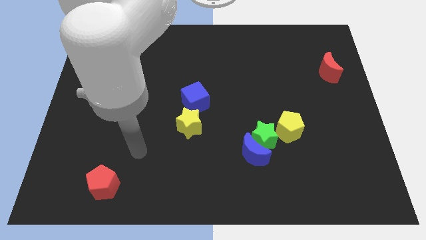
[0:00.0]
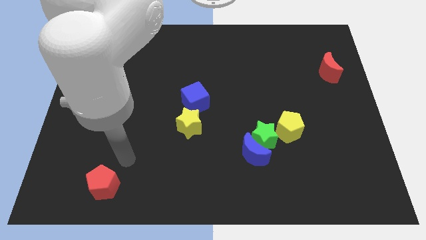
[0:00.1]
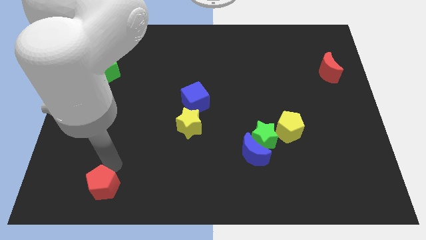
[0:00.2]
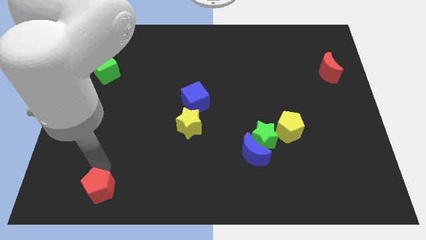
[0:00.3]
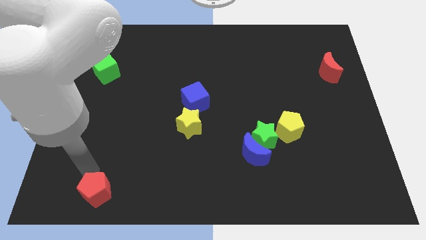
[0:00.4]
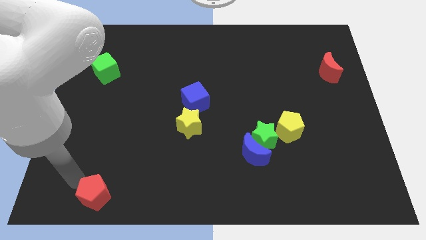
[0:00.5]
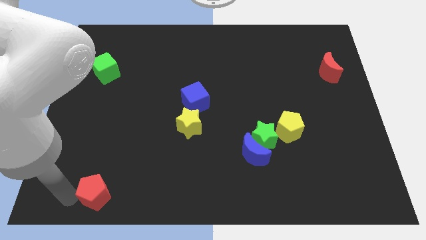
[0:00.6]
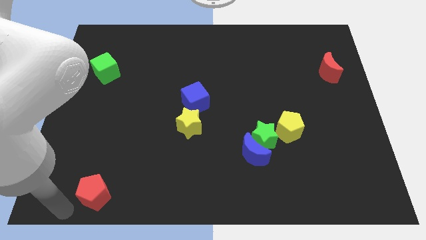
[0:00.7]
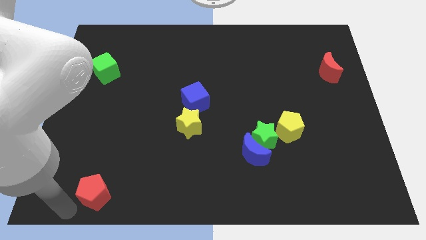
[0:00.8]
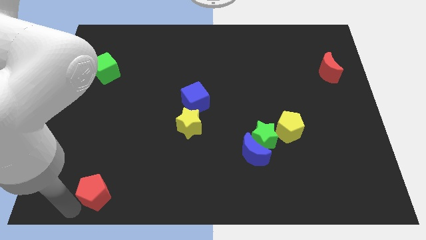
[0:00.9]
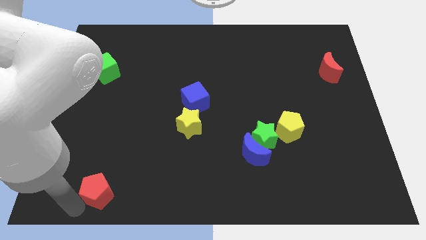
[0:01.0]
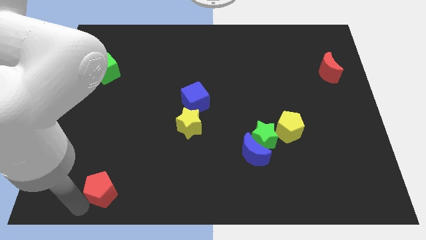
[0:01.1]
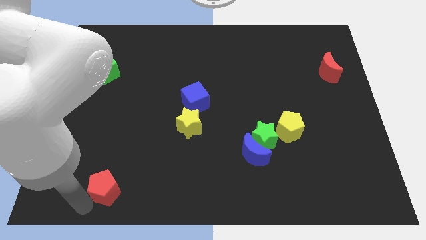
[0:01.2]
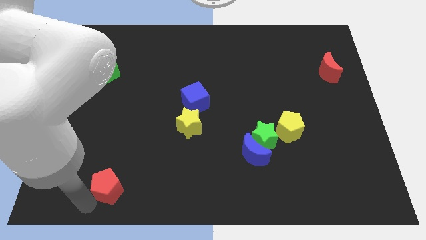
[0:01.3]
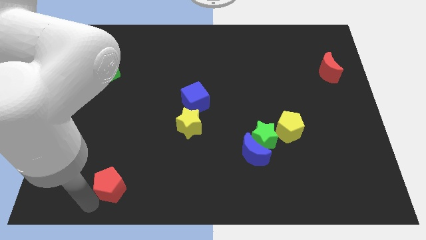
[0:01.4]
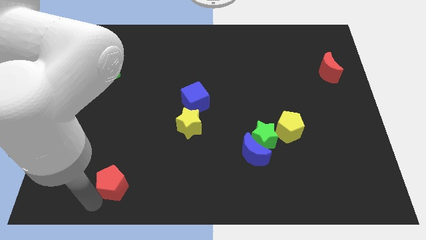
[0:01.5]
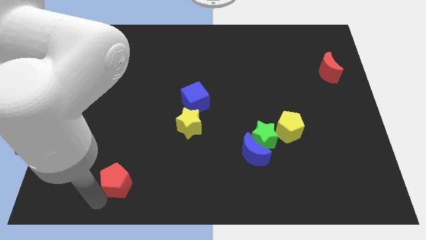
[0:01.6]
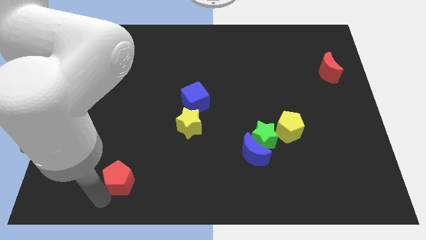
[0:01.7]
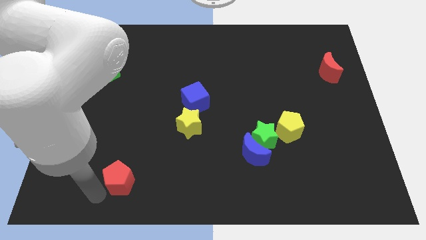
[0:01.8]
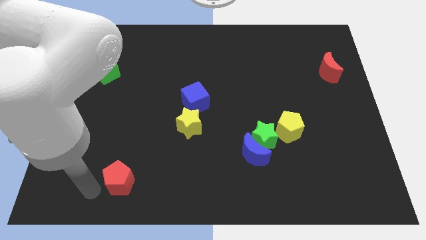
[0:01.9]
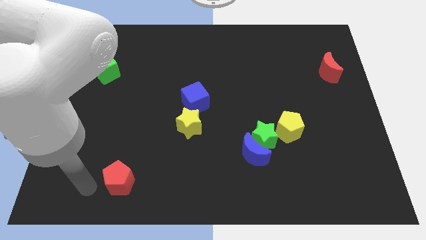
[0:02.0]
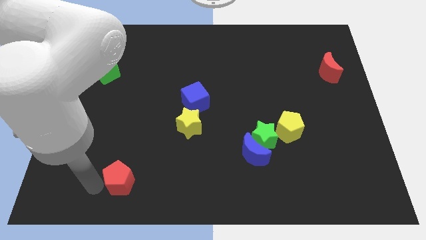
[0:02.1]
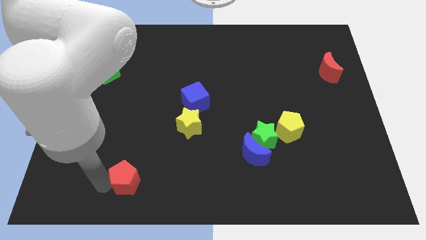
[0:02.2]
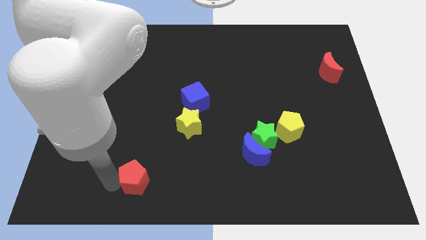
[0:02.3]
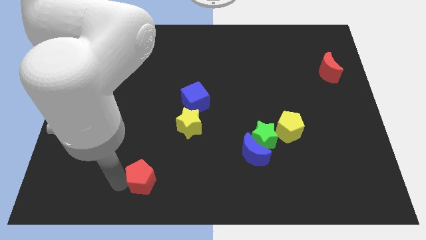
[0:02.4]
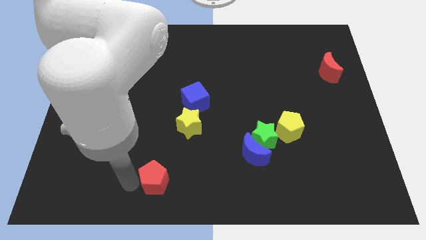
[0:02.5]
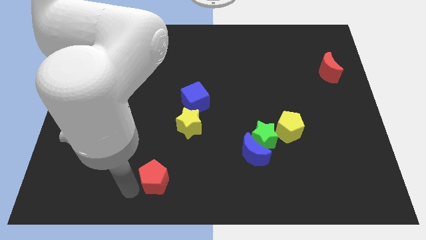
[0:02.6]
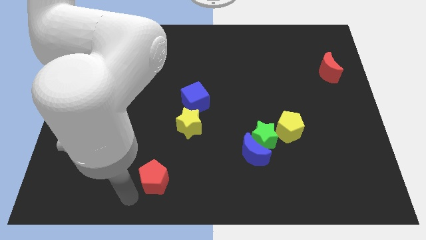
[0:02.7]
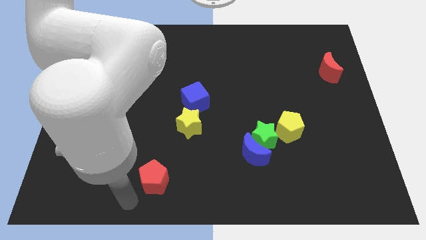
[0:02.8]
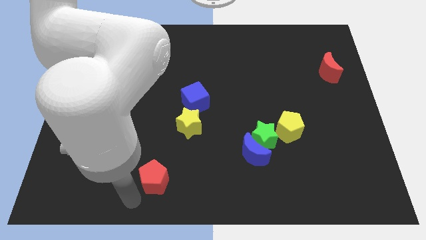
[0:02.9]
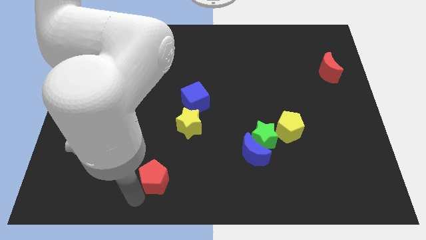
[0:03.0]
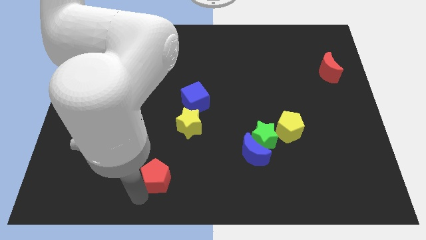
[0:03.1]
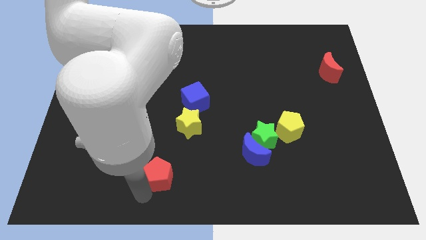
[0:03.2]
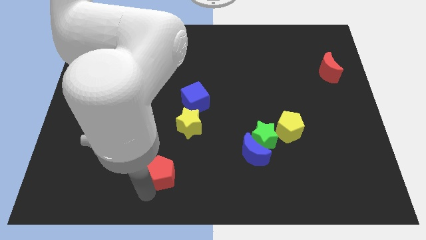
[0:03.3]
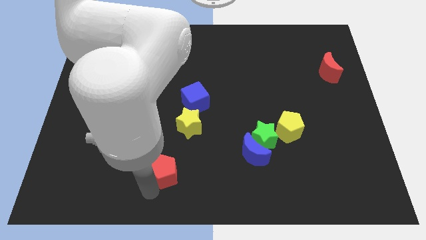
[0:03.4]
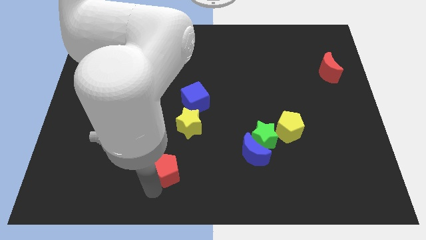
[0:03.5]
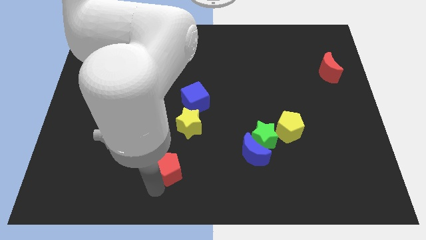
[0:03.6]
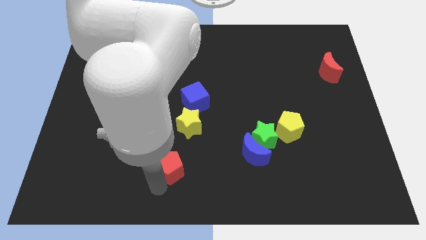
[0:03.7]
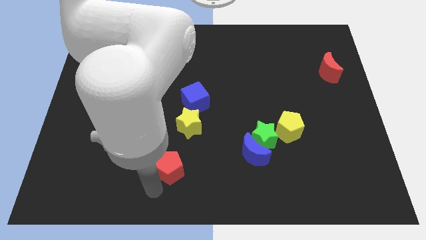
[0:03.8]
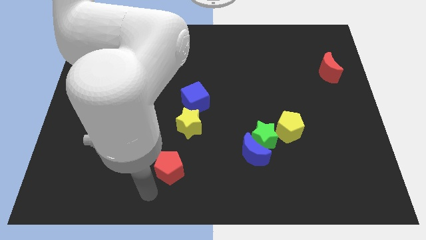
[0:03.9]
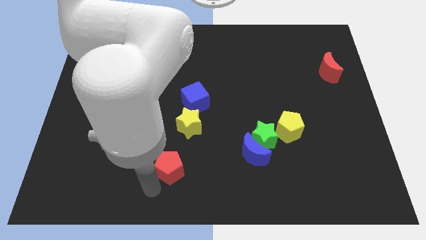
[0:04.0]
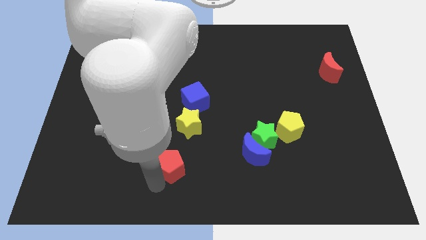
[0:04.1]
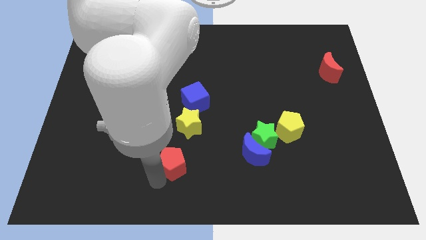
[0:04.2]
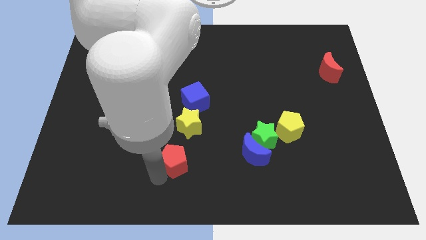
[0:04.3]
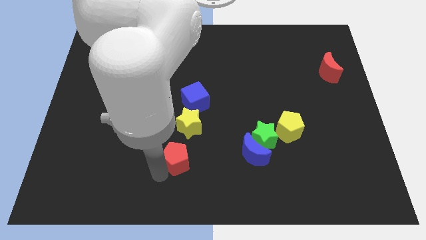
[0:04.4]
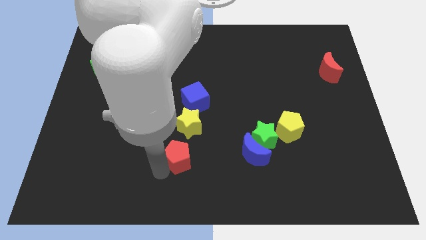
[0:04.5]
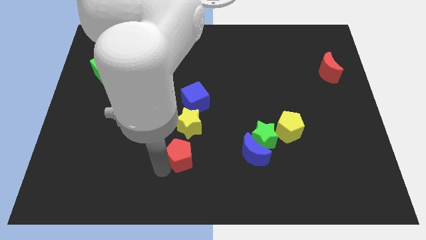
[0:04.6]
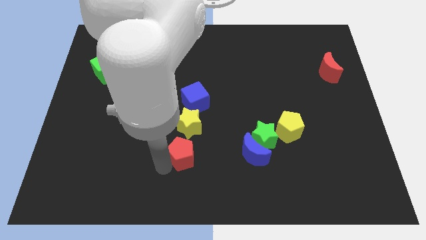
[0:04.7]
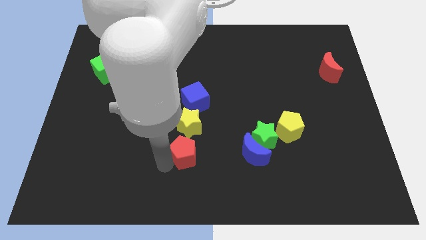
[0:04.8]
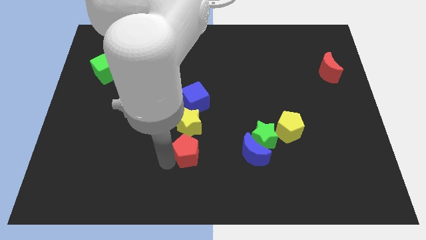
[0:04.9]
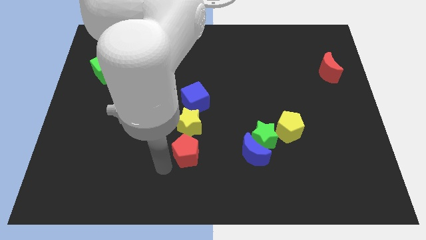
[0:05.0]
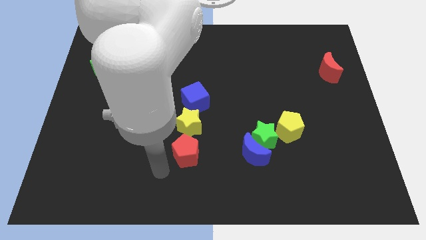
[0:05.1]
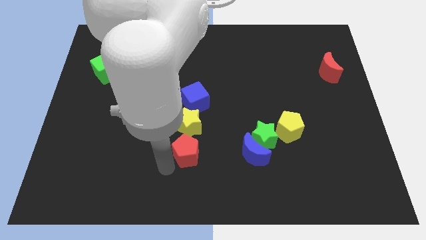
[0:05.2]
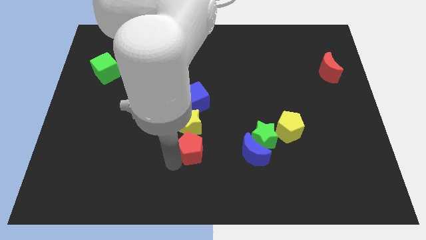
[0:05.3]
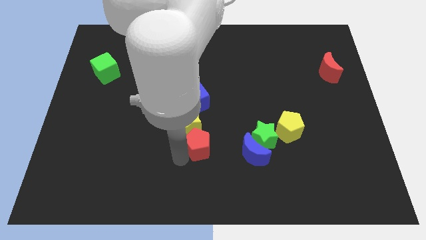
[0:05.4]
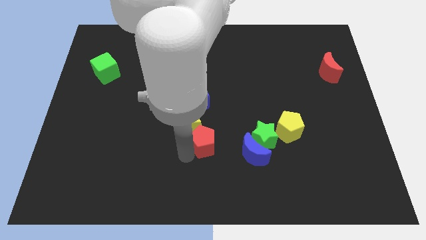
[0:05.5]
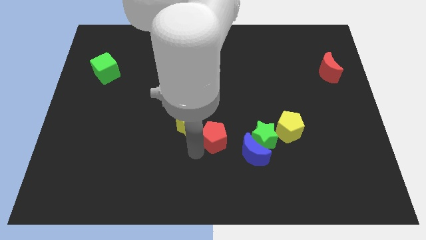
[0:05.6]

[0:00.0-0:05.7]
move the red pentagon up and to the right

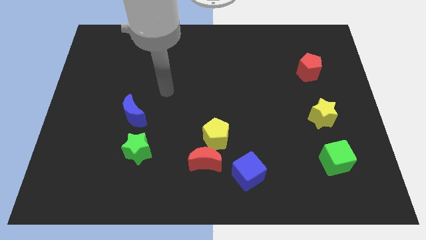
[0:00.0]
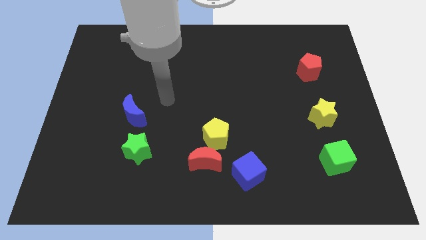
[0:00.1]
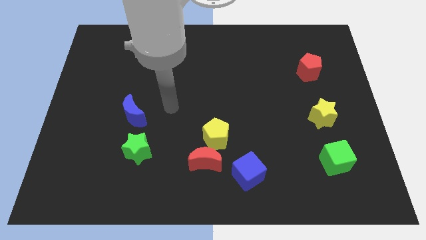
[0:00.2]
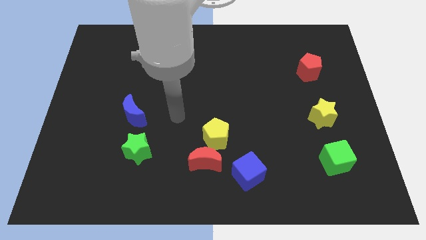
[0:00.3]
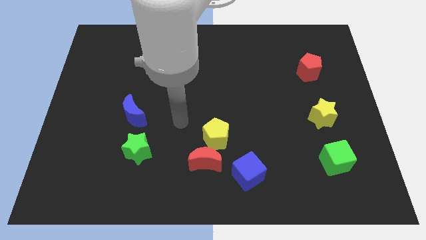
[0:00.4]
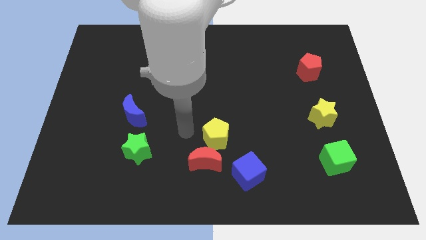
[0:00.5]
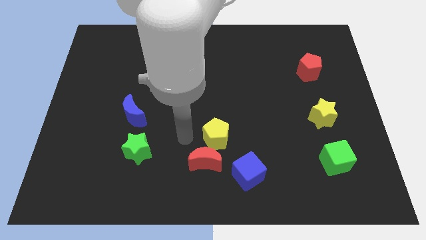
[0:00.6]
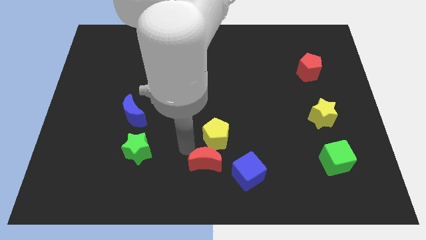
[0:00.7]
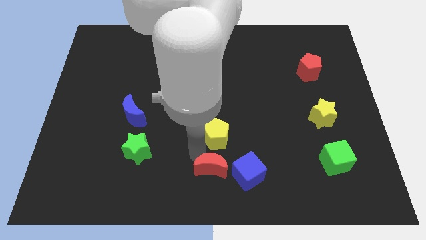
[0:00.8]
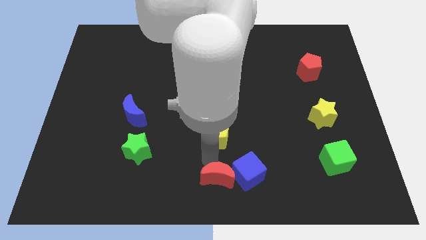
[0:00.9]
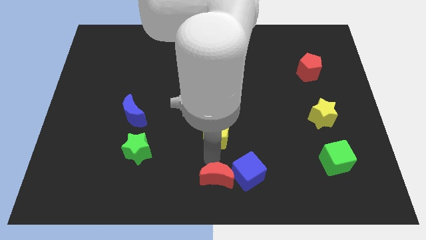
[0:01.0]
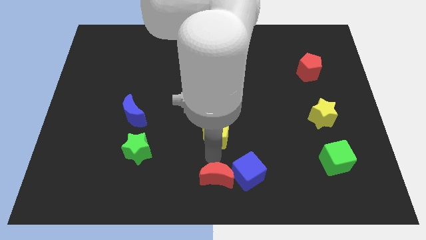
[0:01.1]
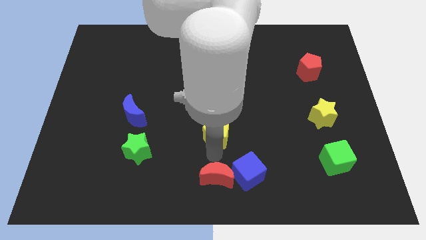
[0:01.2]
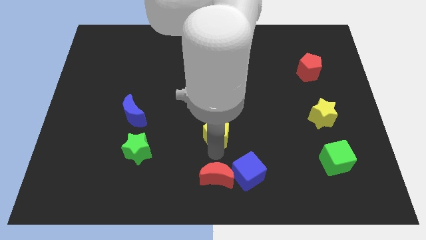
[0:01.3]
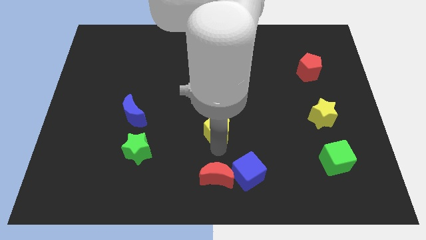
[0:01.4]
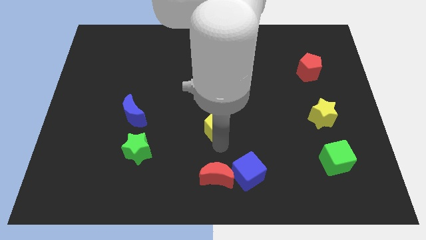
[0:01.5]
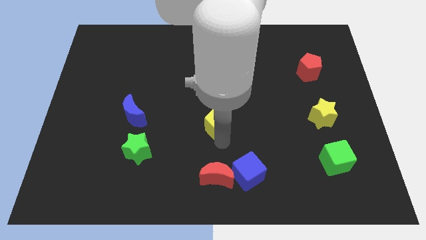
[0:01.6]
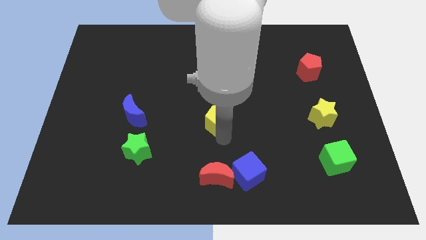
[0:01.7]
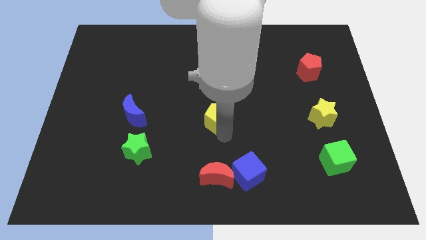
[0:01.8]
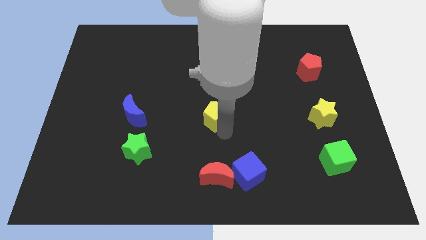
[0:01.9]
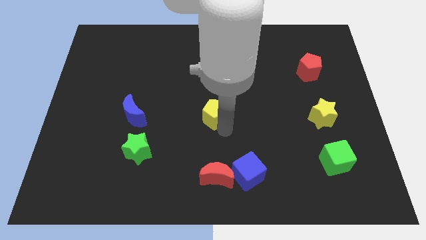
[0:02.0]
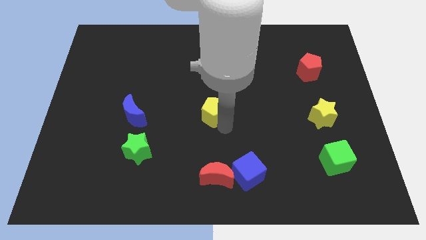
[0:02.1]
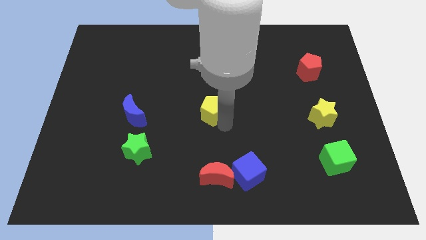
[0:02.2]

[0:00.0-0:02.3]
push the yellow pentagon upwards a little
